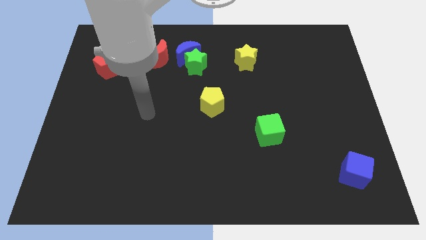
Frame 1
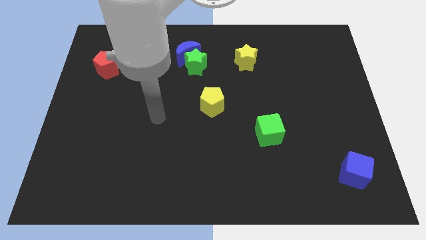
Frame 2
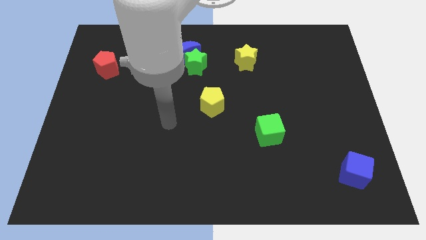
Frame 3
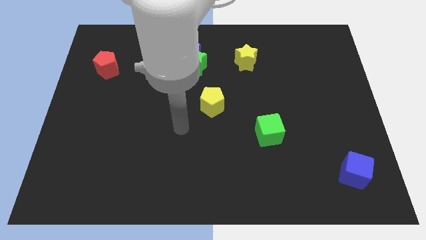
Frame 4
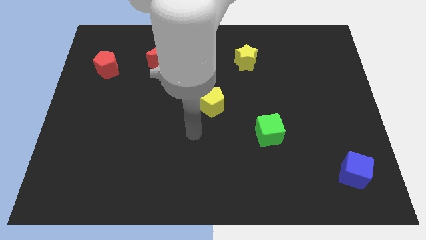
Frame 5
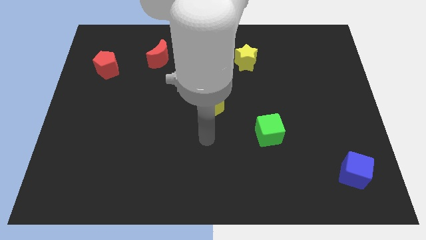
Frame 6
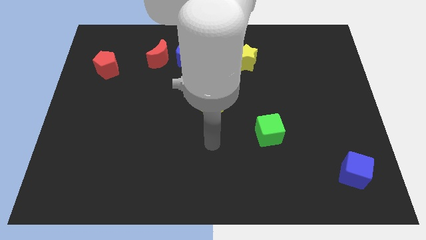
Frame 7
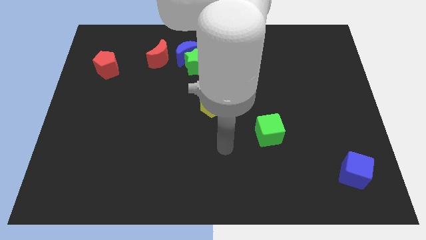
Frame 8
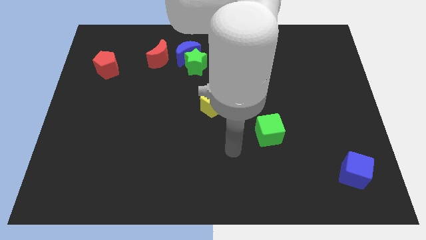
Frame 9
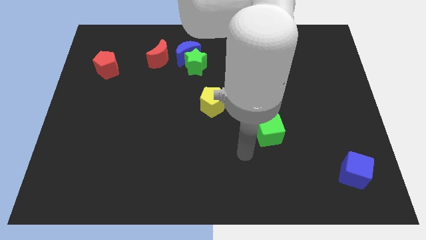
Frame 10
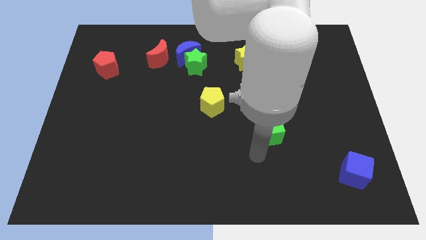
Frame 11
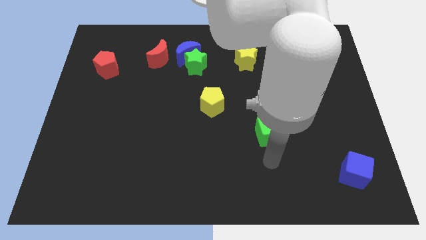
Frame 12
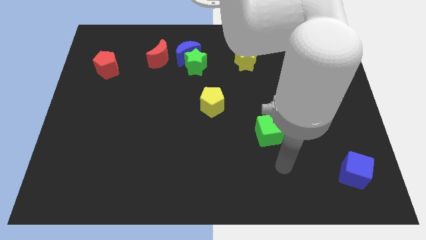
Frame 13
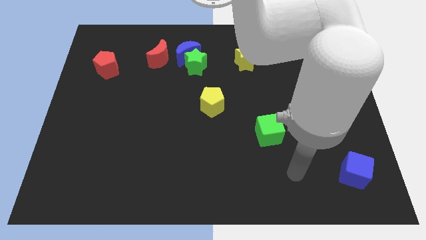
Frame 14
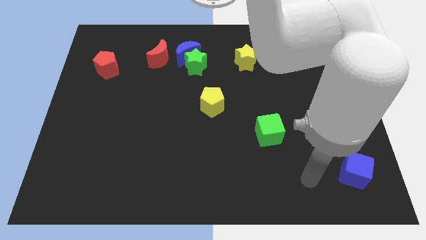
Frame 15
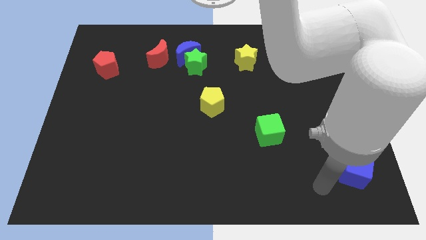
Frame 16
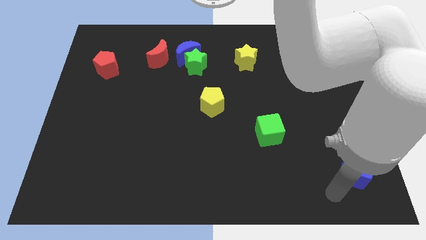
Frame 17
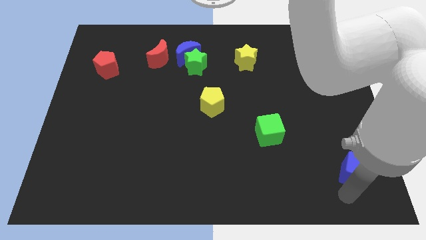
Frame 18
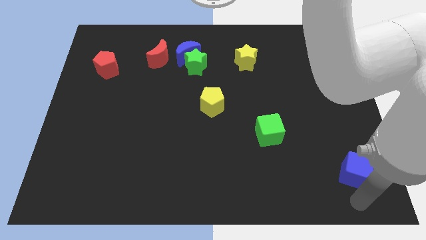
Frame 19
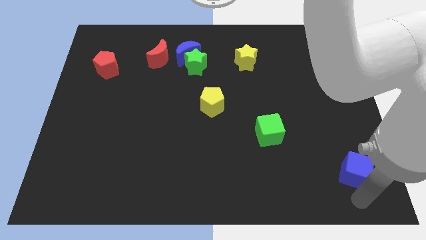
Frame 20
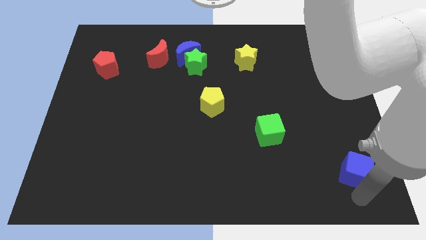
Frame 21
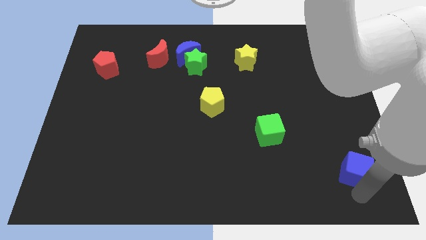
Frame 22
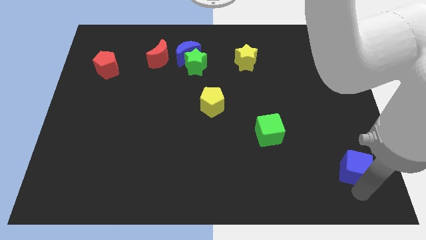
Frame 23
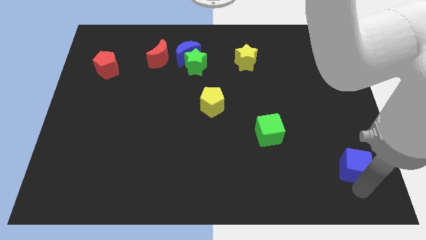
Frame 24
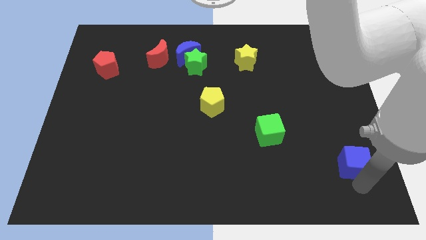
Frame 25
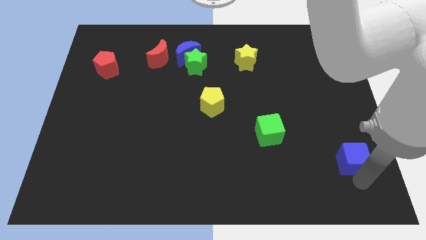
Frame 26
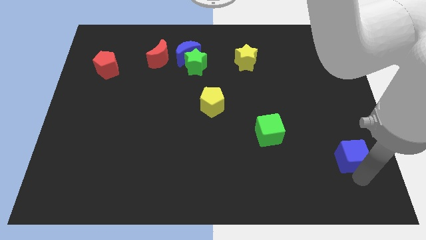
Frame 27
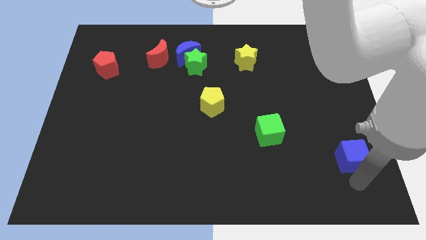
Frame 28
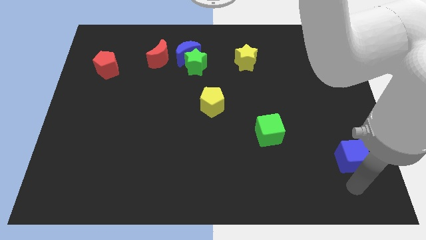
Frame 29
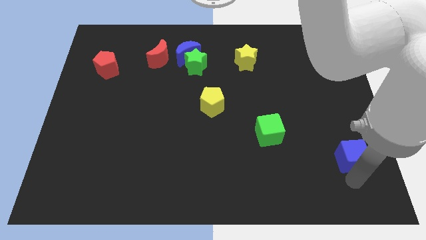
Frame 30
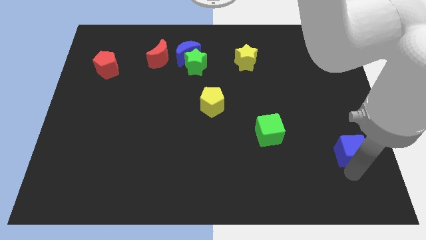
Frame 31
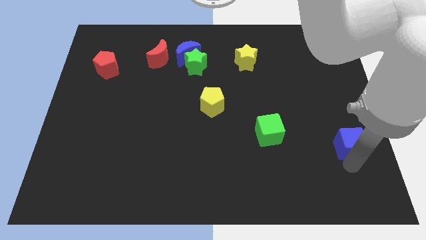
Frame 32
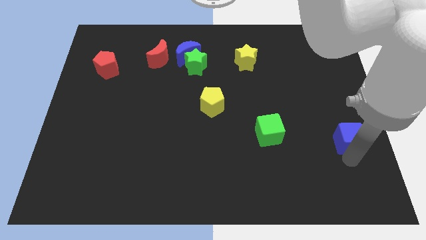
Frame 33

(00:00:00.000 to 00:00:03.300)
push the blue cube a bit upwards

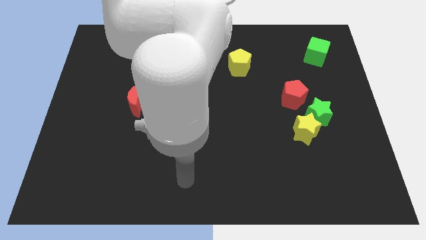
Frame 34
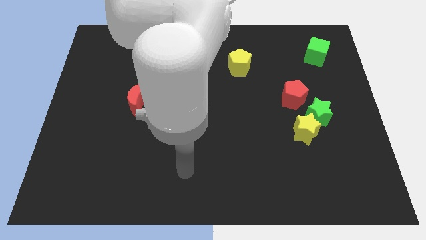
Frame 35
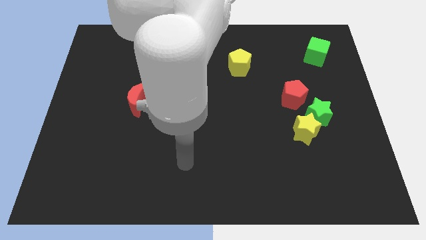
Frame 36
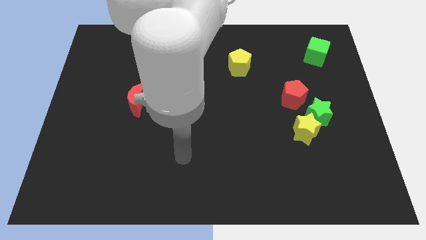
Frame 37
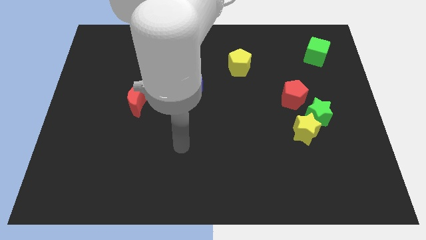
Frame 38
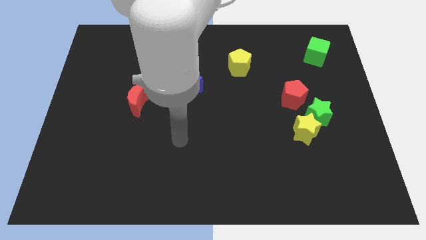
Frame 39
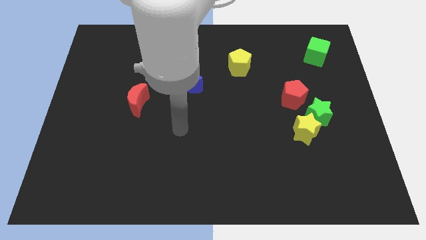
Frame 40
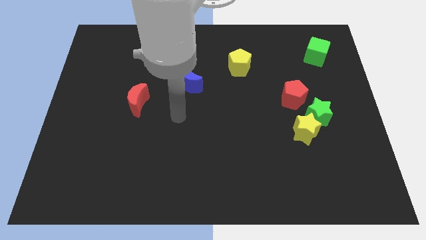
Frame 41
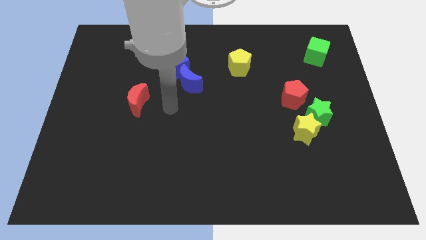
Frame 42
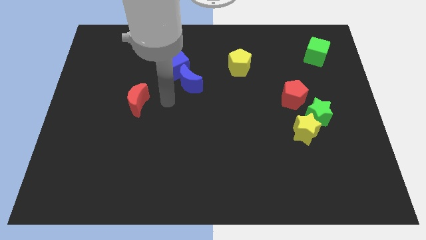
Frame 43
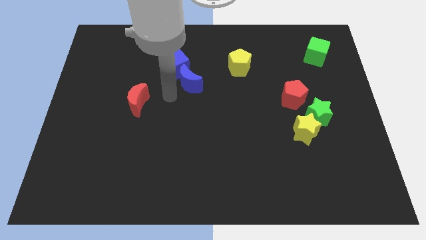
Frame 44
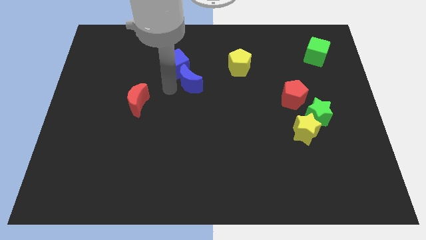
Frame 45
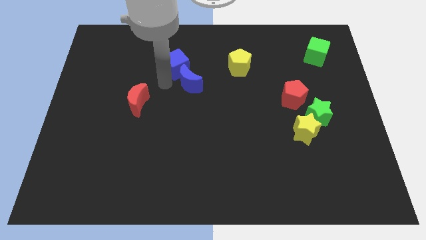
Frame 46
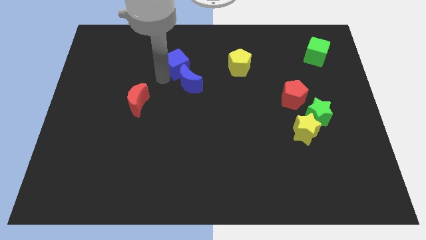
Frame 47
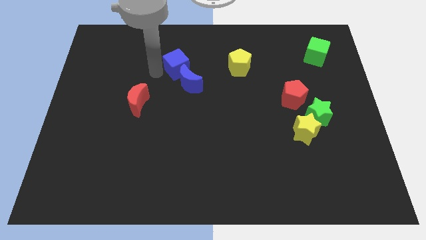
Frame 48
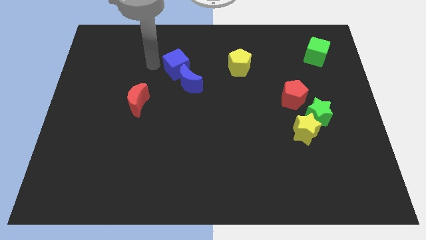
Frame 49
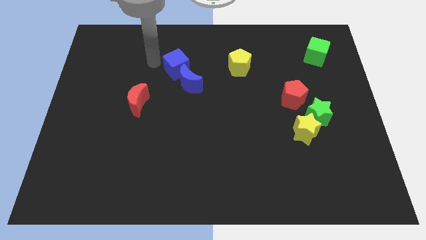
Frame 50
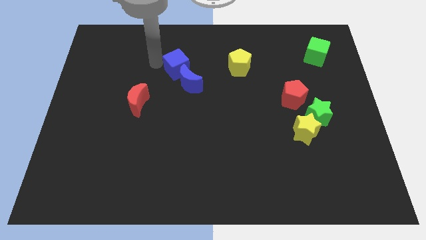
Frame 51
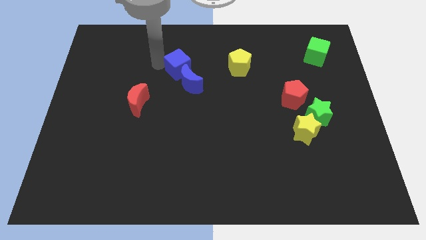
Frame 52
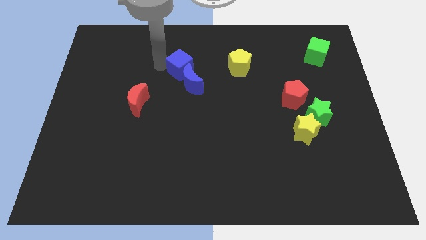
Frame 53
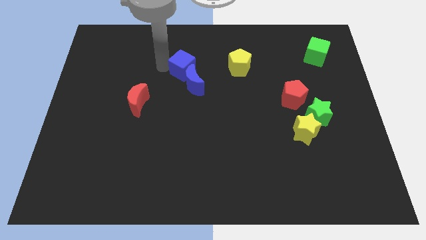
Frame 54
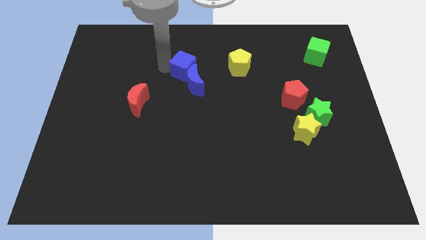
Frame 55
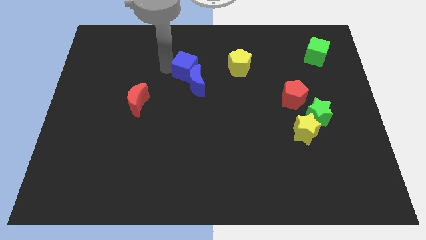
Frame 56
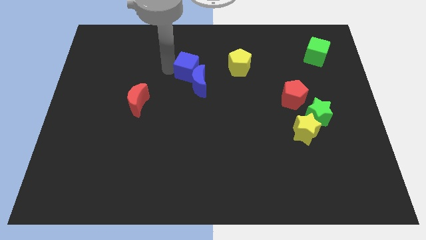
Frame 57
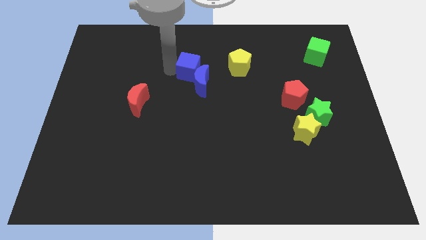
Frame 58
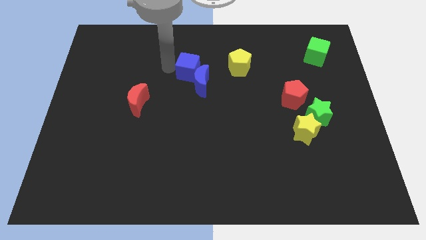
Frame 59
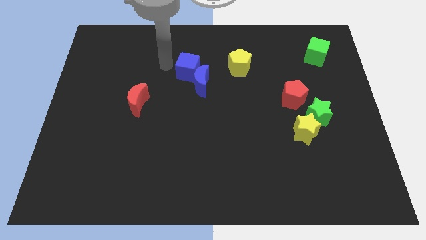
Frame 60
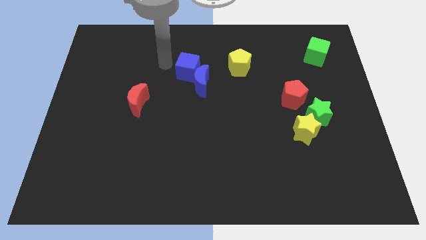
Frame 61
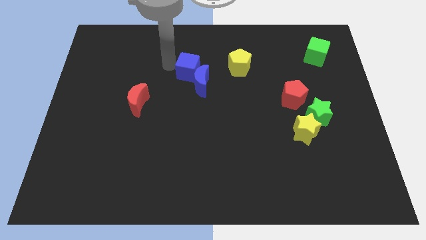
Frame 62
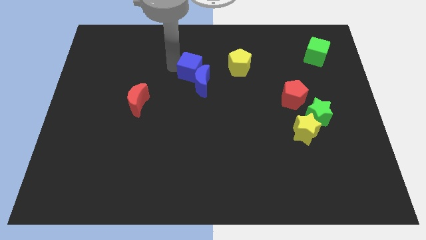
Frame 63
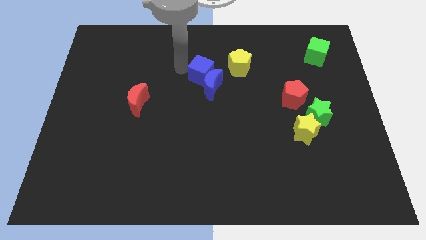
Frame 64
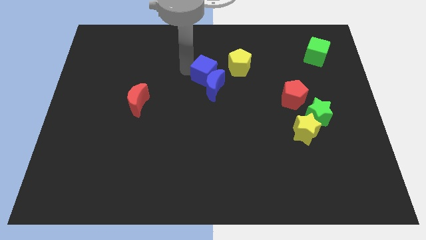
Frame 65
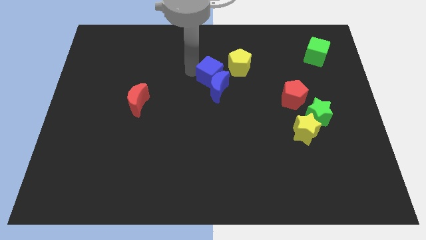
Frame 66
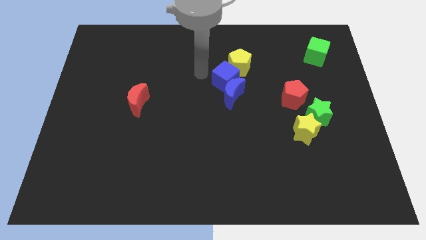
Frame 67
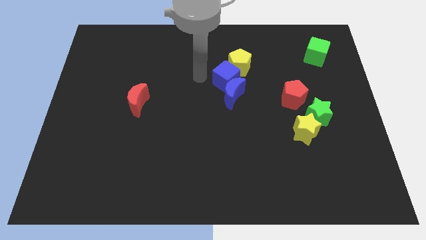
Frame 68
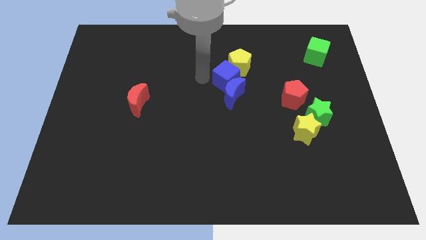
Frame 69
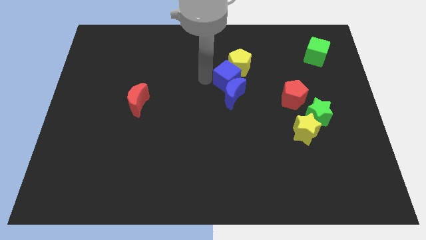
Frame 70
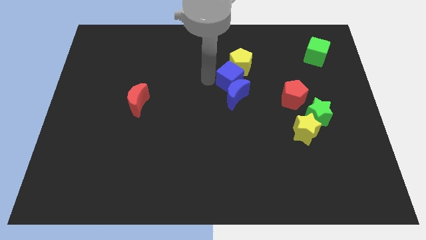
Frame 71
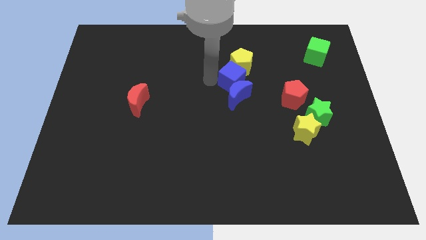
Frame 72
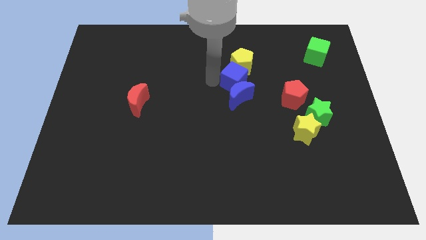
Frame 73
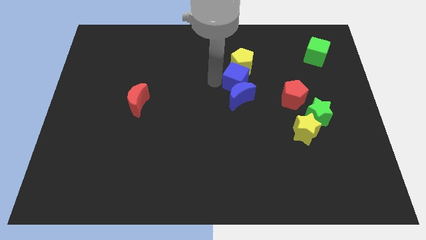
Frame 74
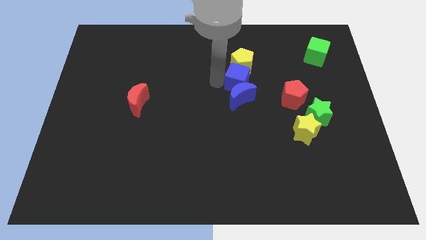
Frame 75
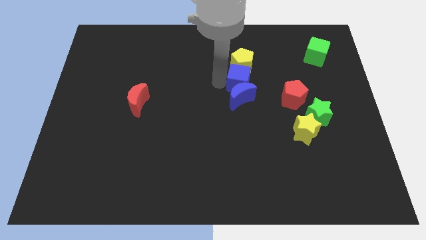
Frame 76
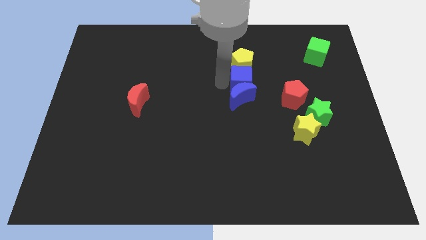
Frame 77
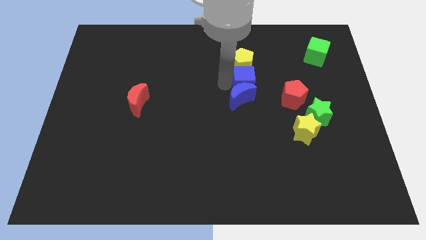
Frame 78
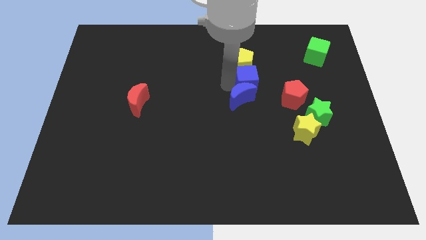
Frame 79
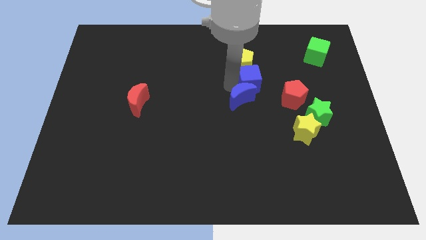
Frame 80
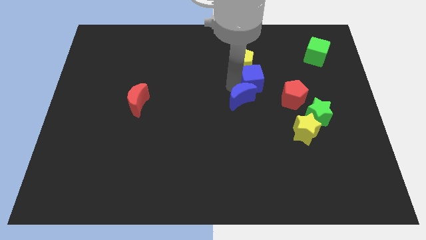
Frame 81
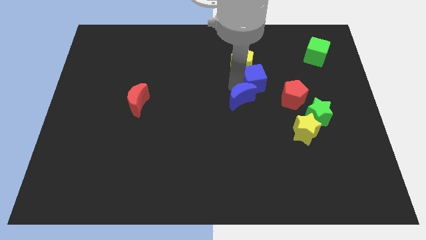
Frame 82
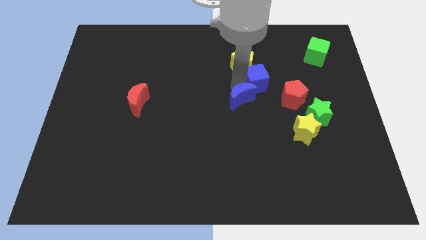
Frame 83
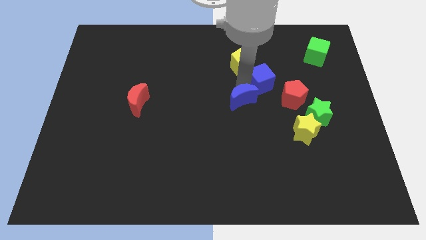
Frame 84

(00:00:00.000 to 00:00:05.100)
slide the blue cube right
